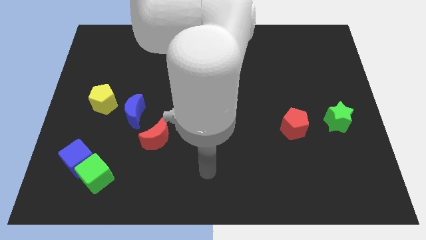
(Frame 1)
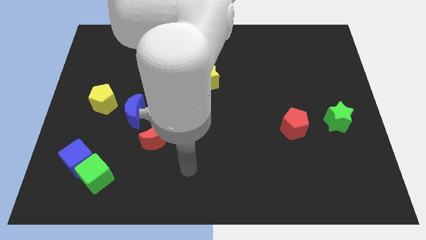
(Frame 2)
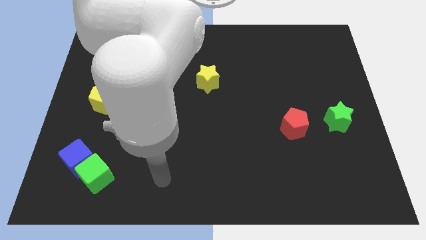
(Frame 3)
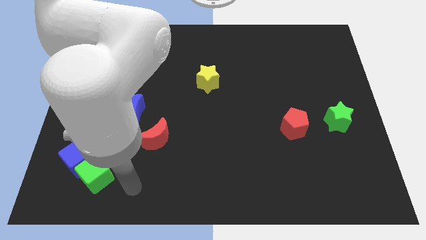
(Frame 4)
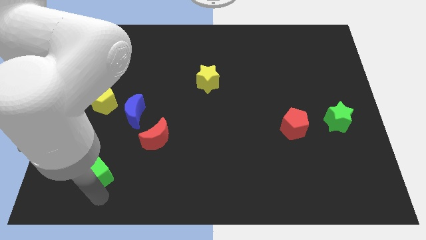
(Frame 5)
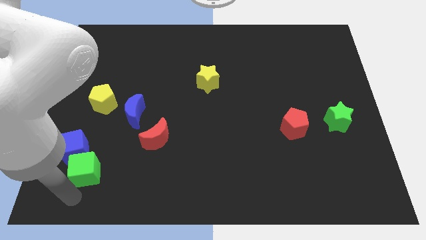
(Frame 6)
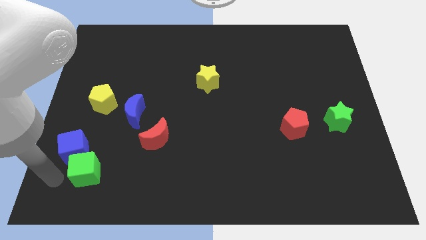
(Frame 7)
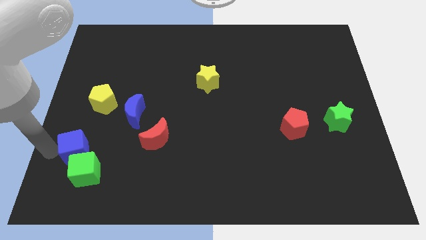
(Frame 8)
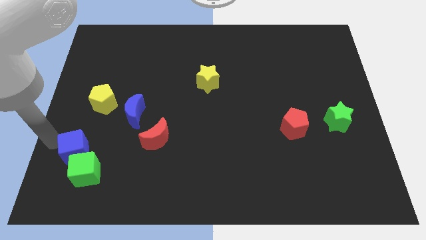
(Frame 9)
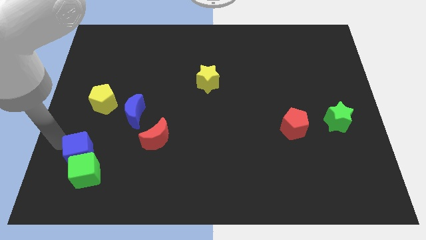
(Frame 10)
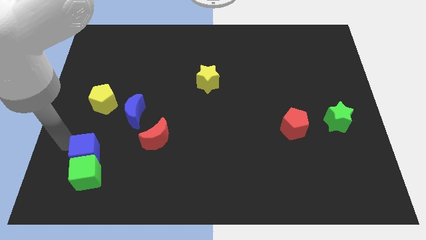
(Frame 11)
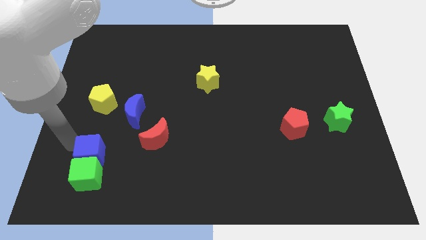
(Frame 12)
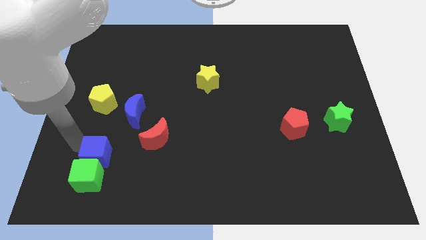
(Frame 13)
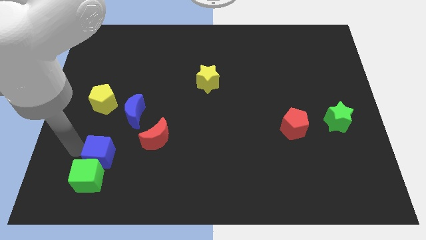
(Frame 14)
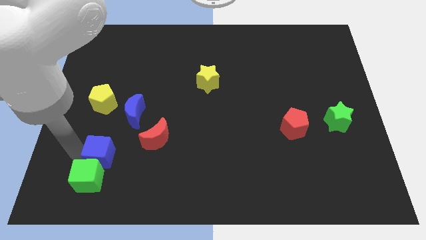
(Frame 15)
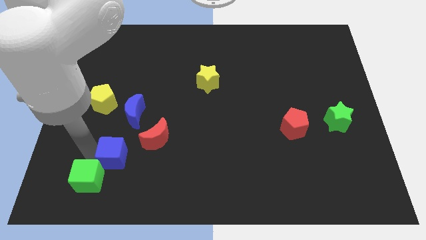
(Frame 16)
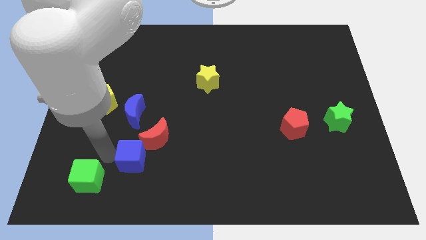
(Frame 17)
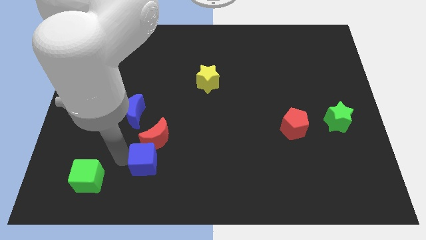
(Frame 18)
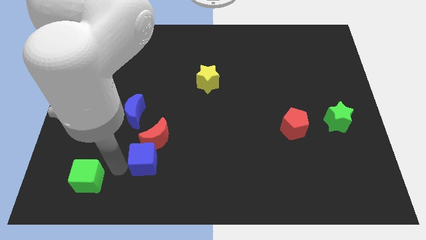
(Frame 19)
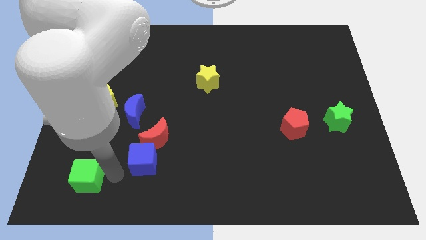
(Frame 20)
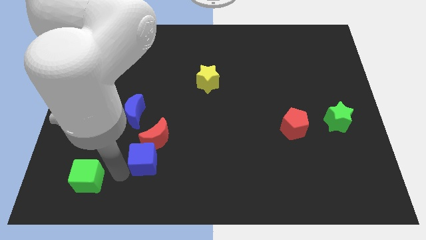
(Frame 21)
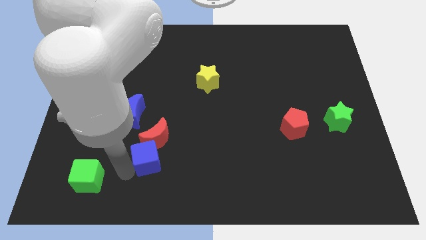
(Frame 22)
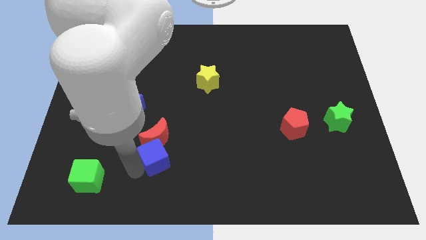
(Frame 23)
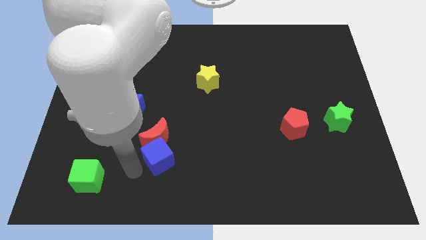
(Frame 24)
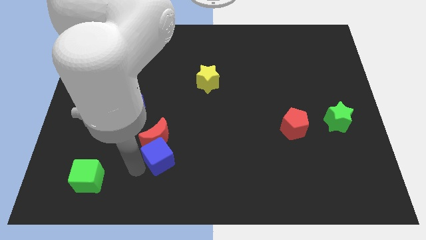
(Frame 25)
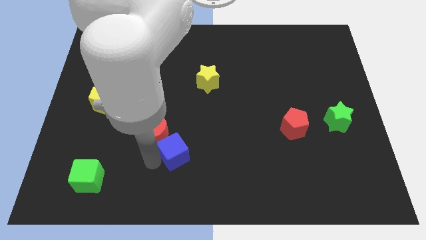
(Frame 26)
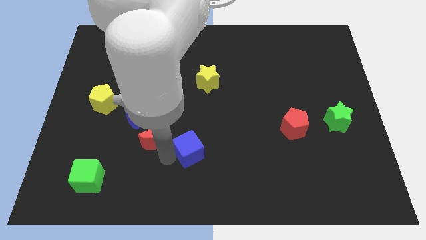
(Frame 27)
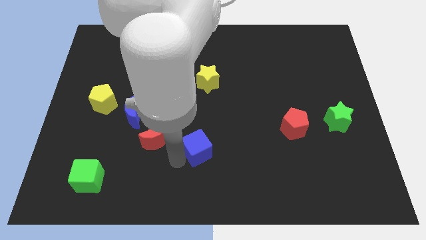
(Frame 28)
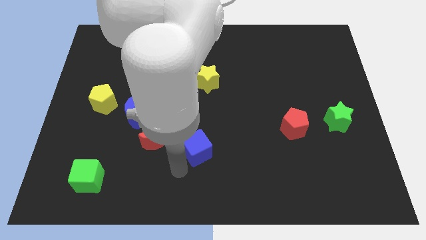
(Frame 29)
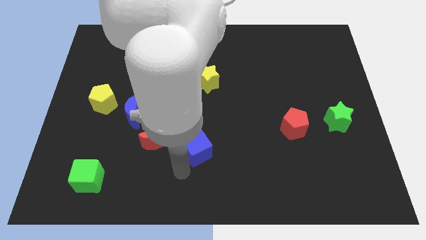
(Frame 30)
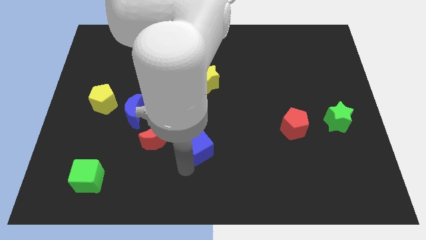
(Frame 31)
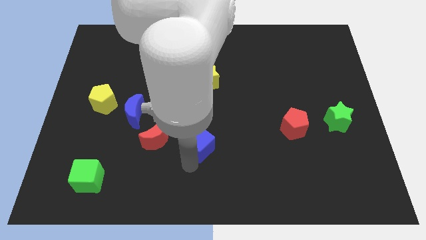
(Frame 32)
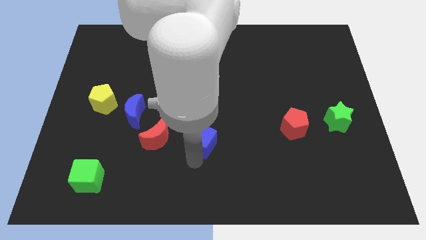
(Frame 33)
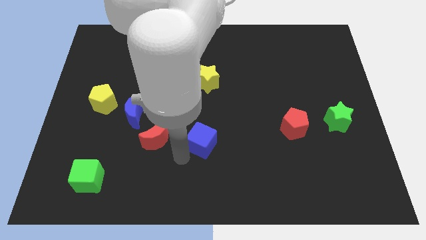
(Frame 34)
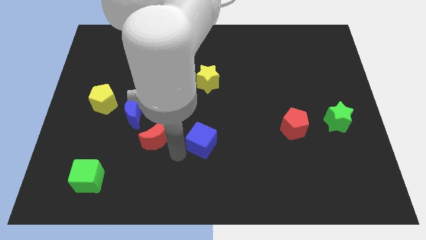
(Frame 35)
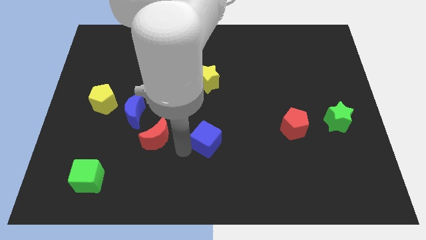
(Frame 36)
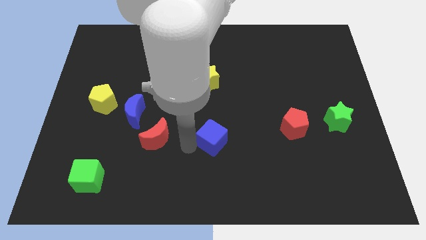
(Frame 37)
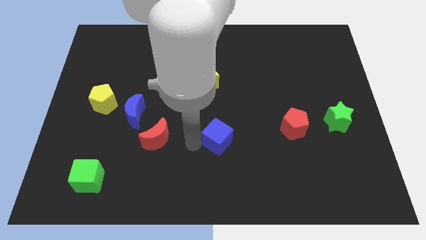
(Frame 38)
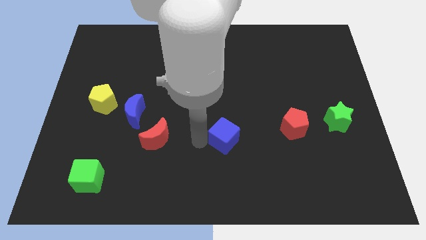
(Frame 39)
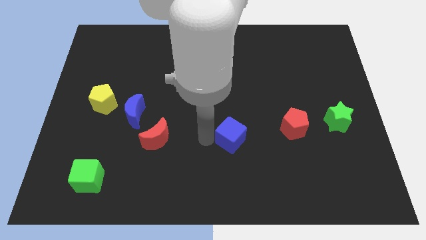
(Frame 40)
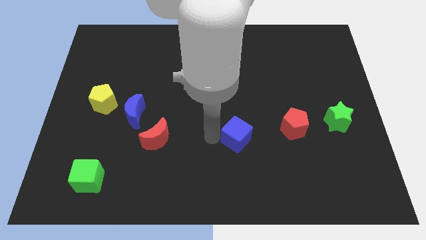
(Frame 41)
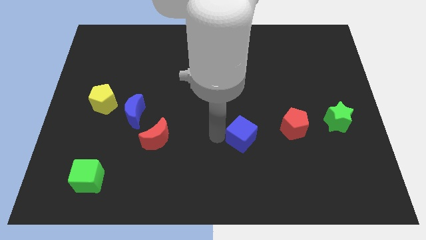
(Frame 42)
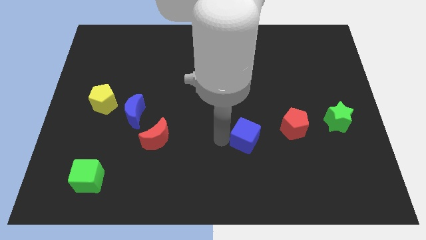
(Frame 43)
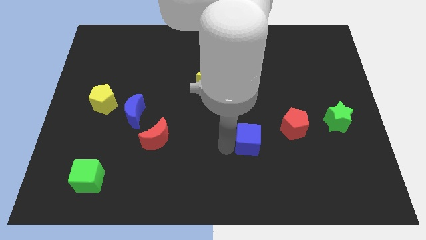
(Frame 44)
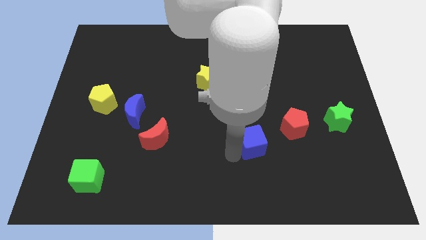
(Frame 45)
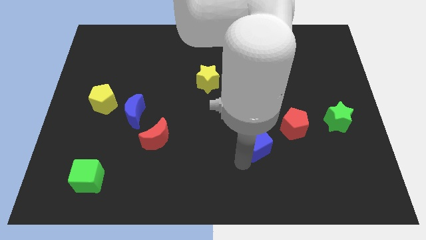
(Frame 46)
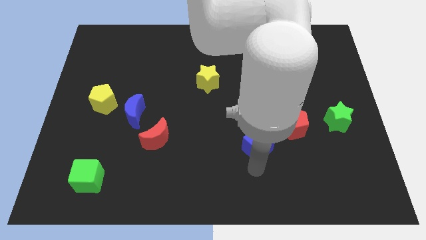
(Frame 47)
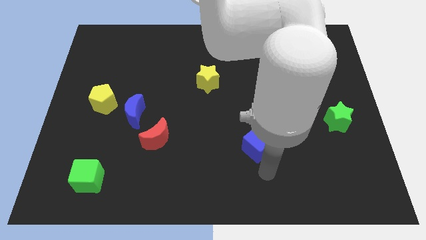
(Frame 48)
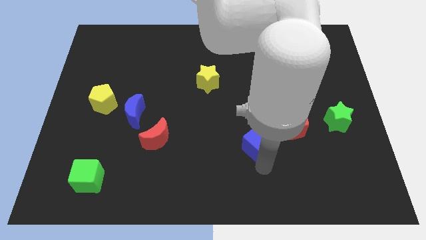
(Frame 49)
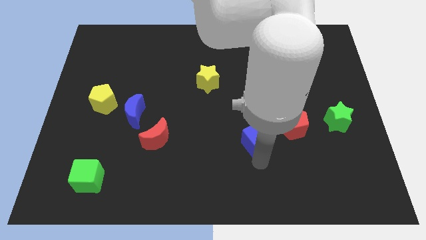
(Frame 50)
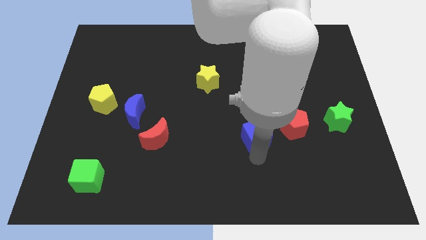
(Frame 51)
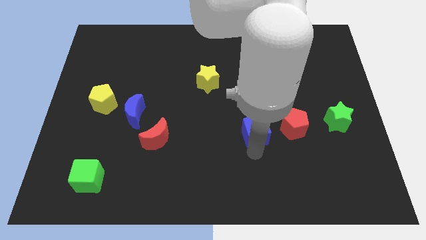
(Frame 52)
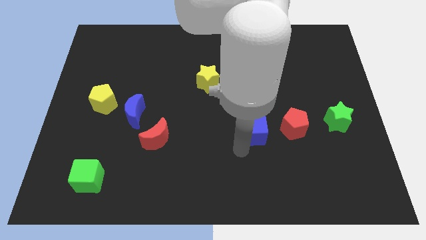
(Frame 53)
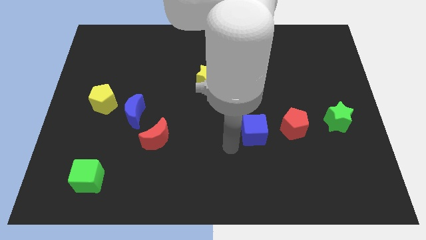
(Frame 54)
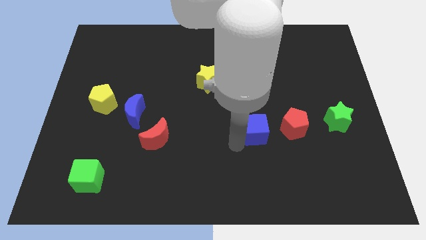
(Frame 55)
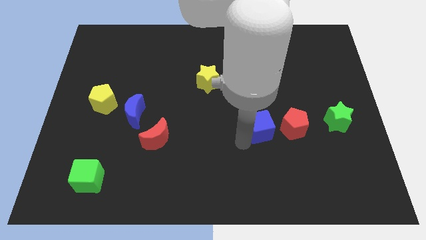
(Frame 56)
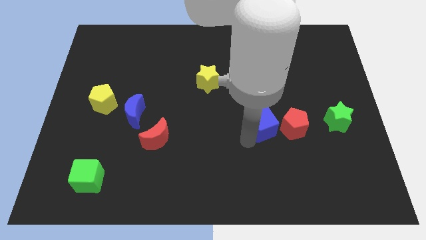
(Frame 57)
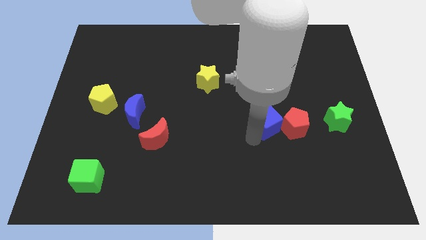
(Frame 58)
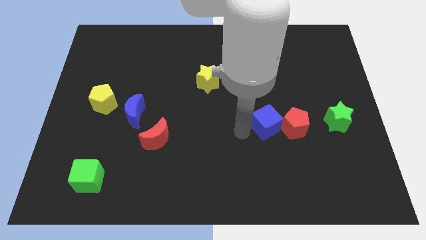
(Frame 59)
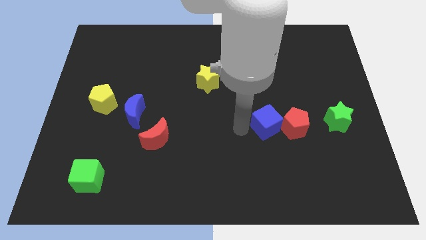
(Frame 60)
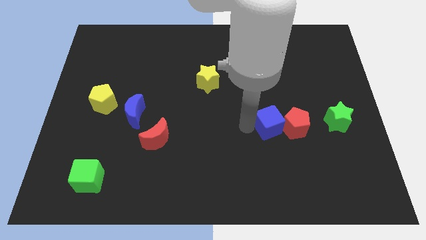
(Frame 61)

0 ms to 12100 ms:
push the blue cube to the left side of the green star

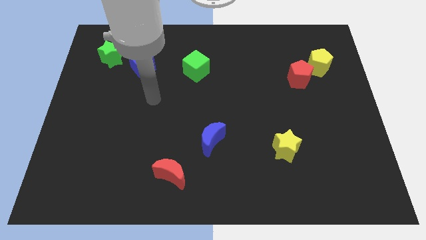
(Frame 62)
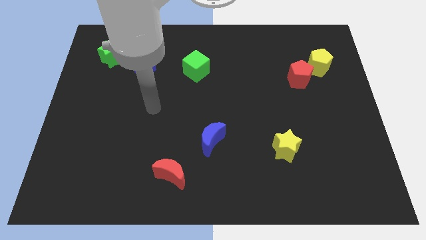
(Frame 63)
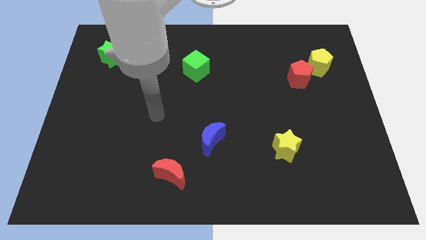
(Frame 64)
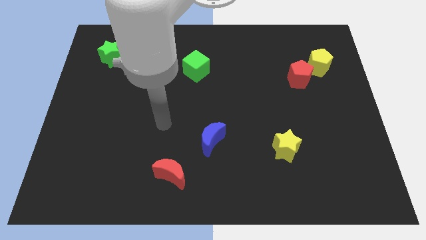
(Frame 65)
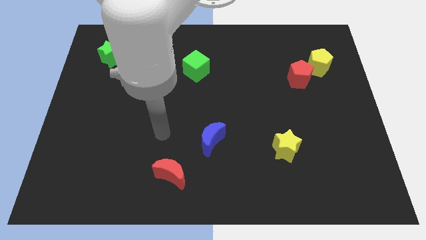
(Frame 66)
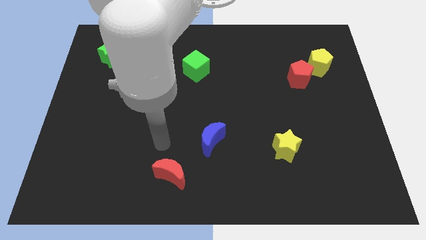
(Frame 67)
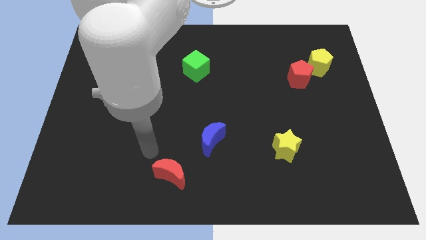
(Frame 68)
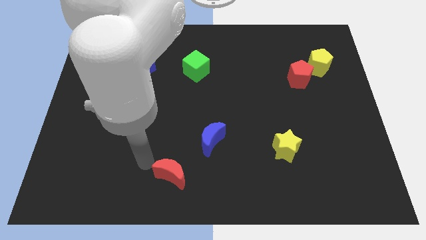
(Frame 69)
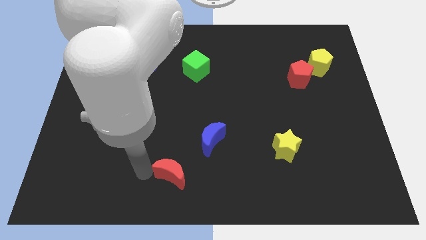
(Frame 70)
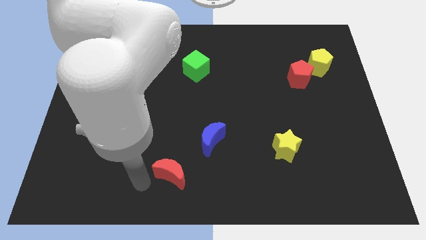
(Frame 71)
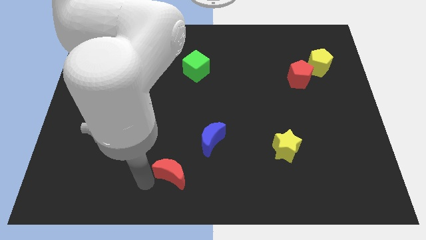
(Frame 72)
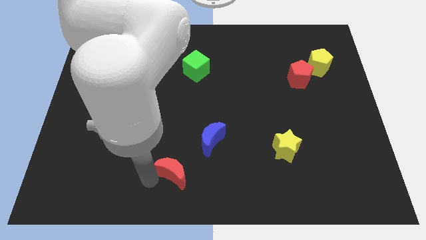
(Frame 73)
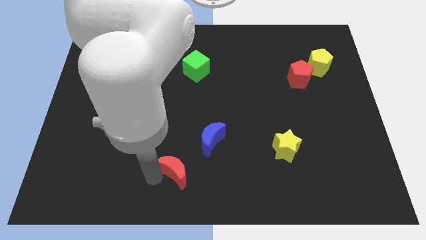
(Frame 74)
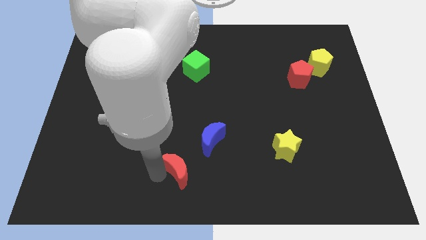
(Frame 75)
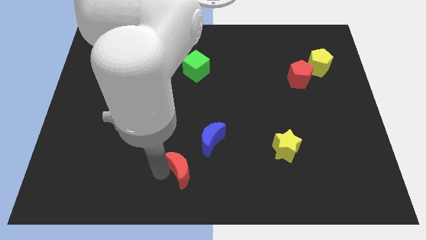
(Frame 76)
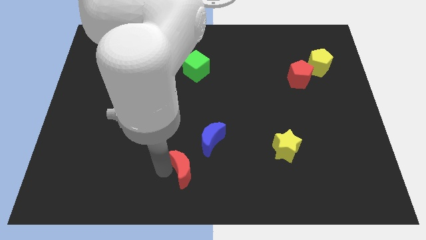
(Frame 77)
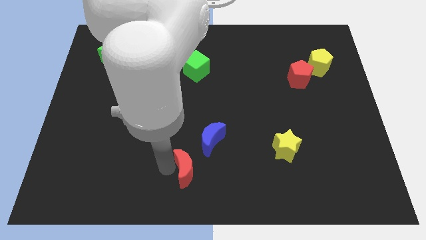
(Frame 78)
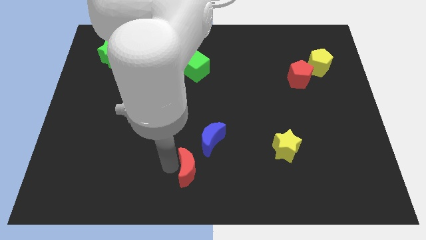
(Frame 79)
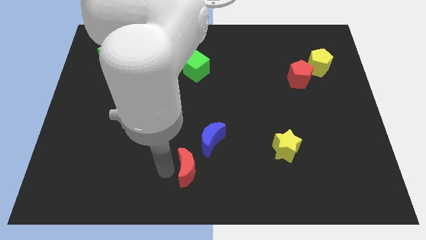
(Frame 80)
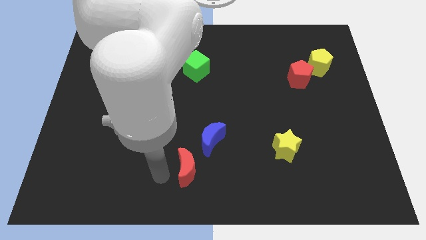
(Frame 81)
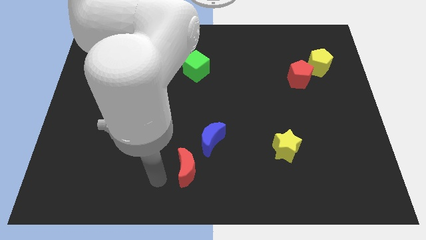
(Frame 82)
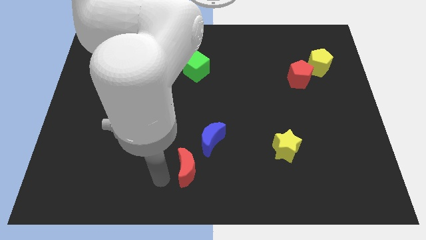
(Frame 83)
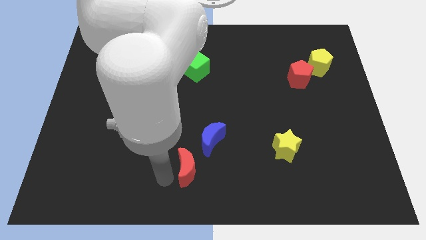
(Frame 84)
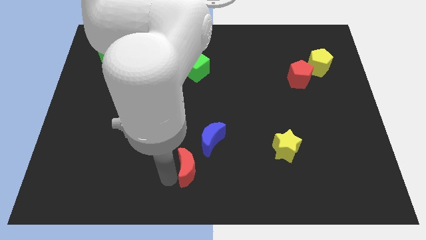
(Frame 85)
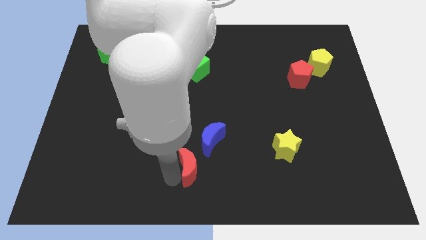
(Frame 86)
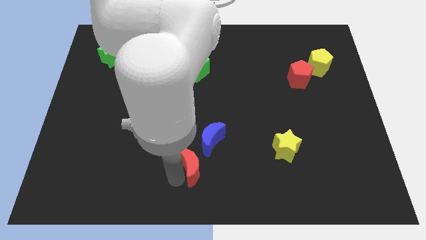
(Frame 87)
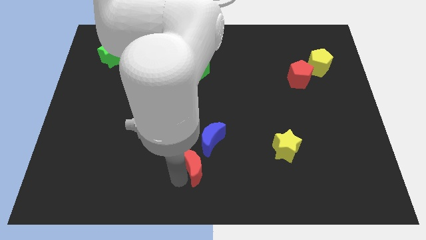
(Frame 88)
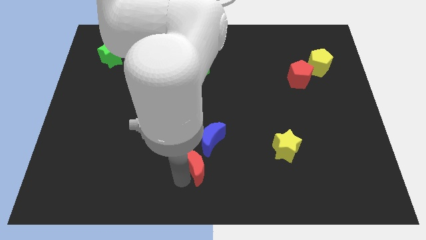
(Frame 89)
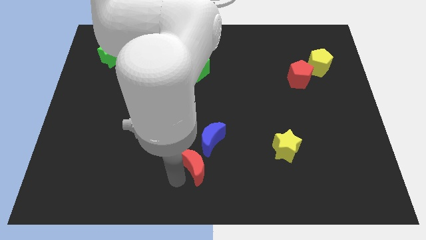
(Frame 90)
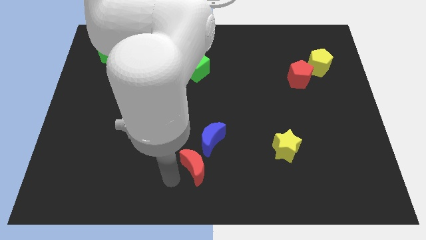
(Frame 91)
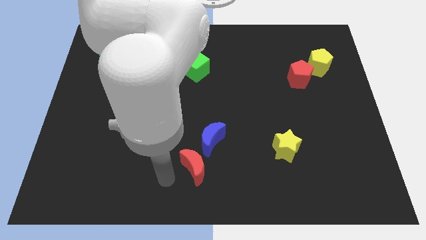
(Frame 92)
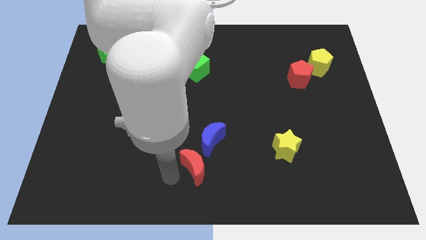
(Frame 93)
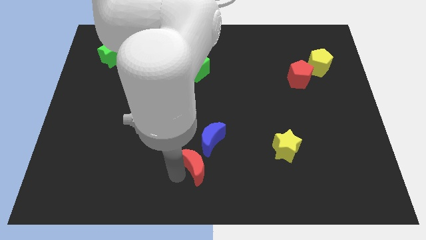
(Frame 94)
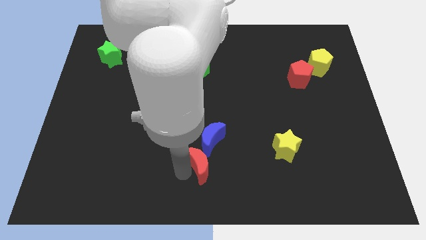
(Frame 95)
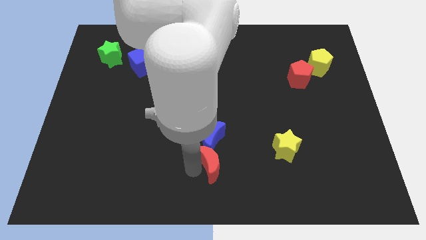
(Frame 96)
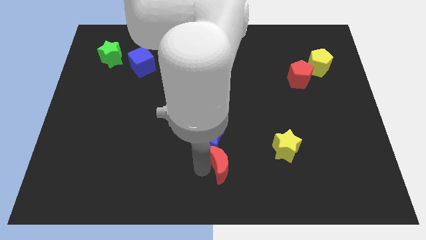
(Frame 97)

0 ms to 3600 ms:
slide the red moon just left of the yellow star
